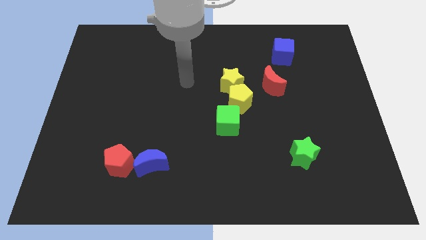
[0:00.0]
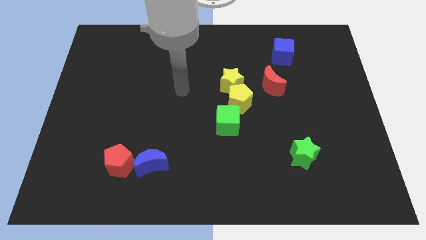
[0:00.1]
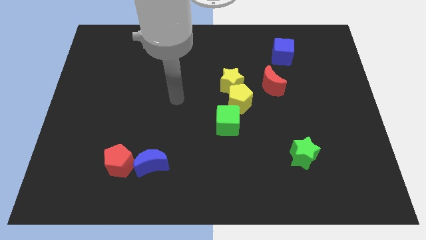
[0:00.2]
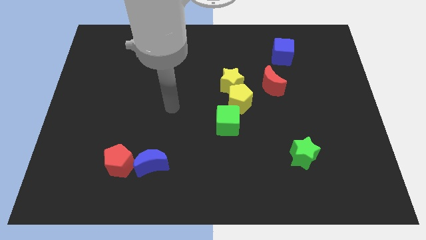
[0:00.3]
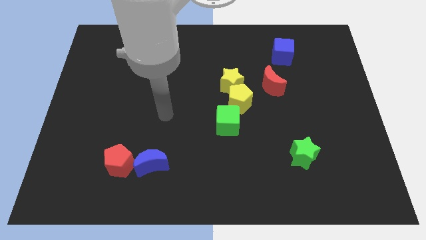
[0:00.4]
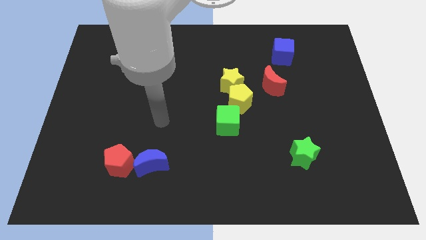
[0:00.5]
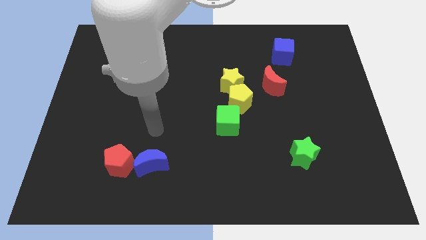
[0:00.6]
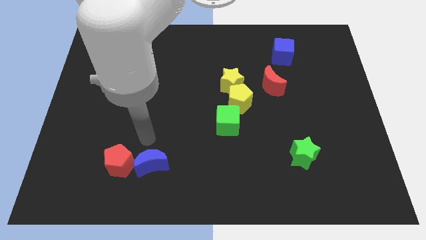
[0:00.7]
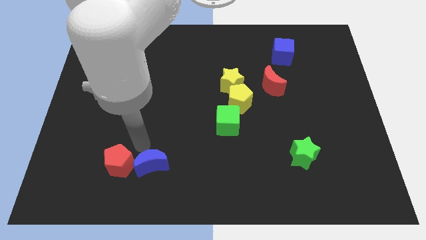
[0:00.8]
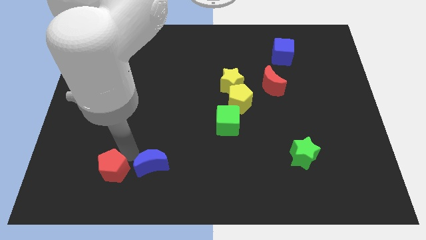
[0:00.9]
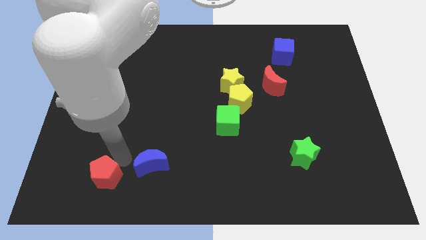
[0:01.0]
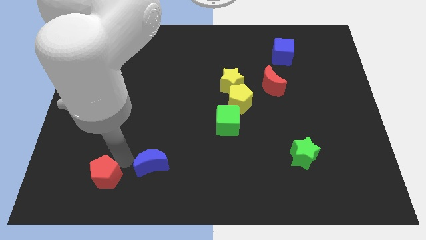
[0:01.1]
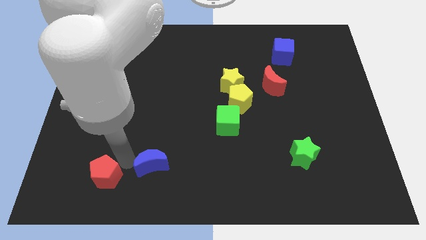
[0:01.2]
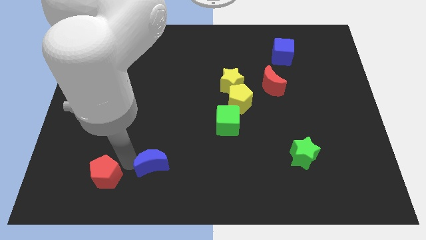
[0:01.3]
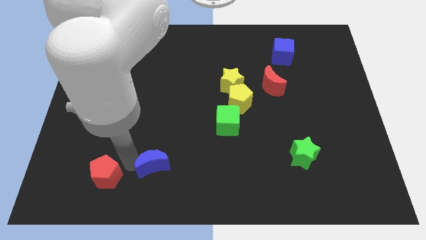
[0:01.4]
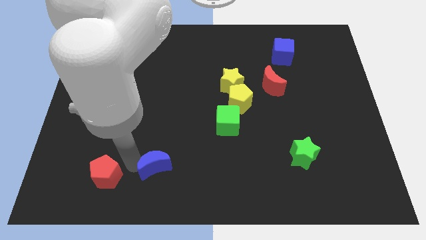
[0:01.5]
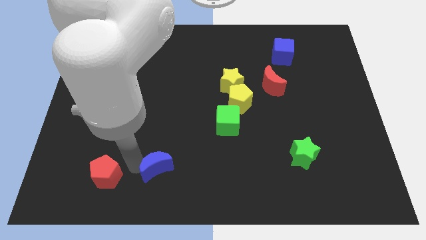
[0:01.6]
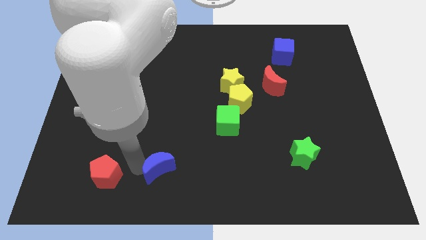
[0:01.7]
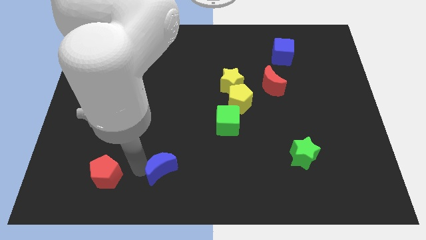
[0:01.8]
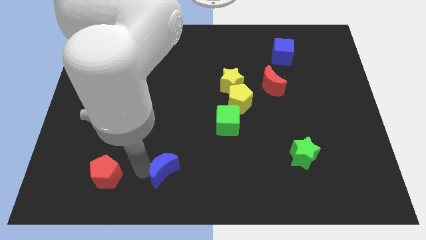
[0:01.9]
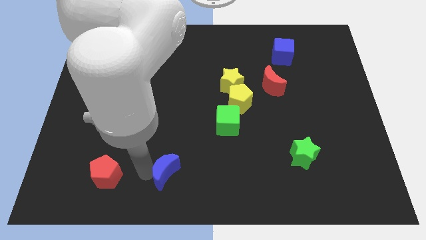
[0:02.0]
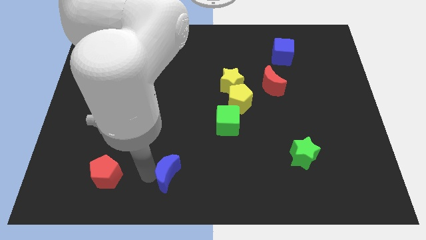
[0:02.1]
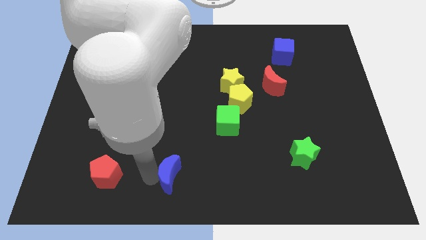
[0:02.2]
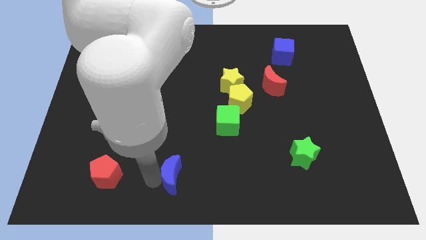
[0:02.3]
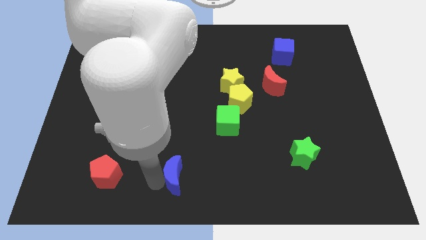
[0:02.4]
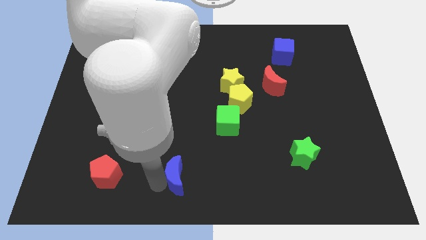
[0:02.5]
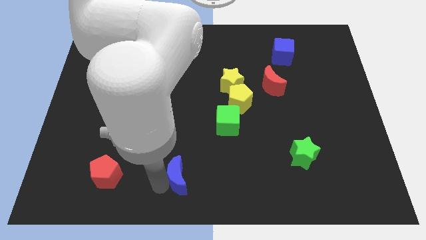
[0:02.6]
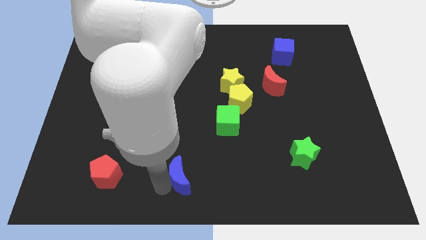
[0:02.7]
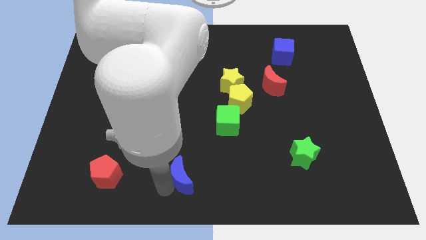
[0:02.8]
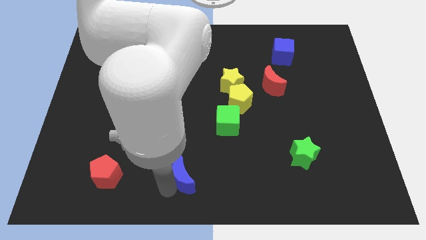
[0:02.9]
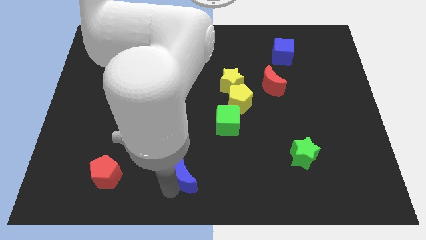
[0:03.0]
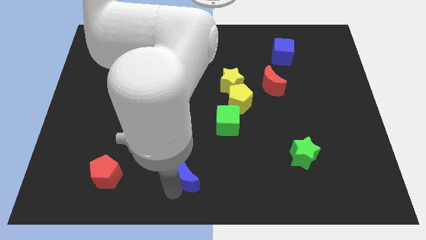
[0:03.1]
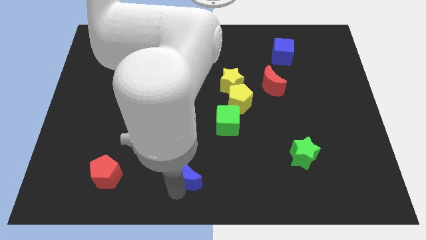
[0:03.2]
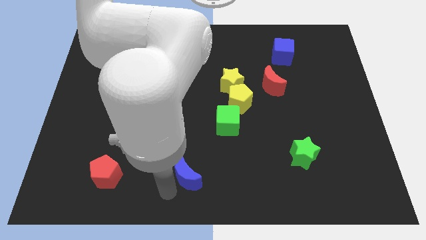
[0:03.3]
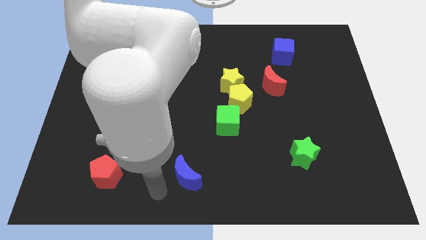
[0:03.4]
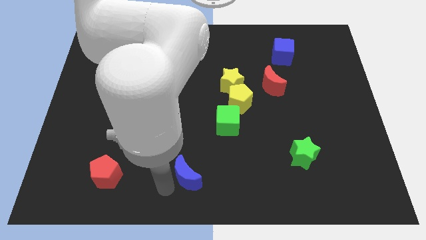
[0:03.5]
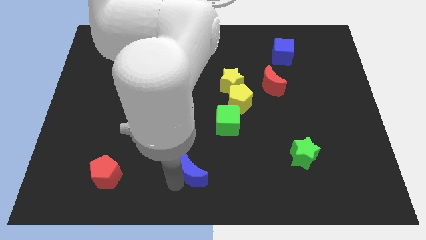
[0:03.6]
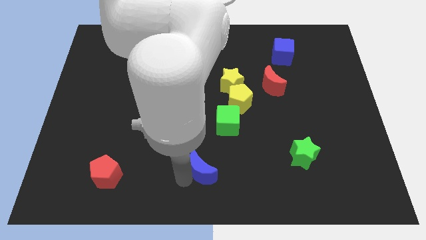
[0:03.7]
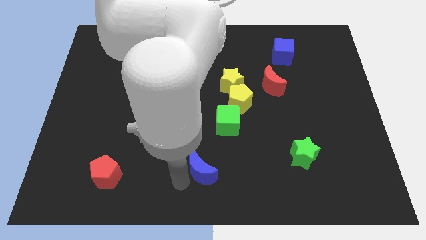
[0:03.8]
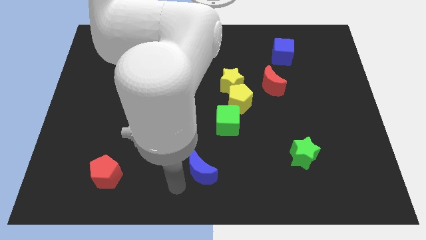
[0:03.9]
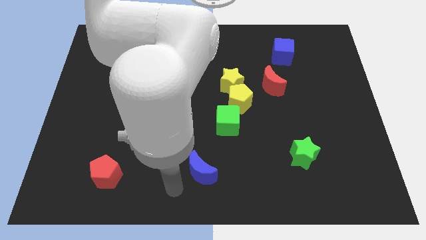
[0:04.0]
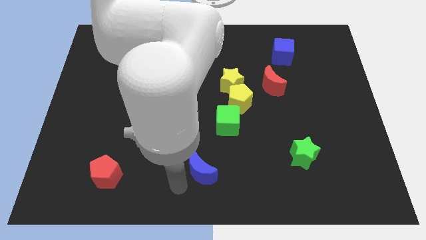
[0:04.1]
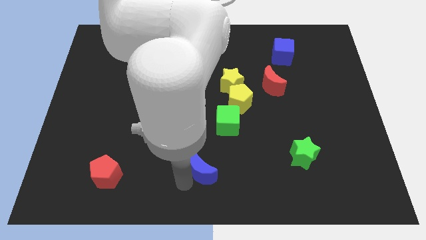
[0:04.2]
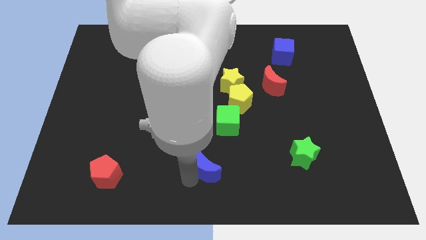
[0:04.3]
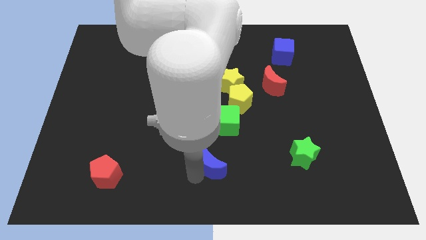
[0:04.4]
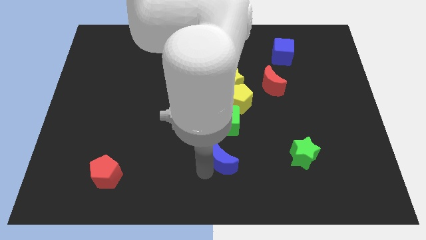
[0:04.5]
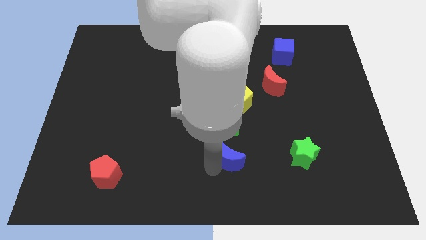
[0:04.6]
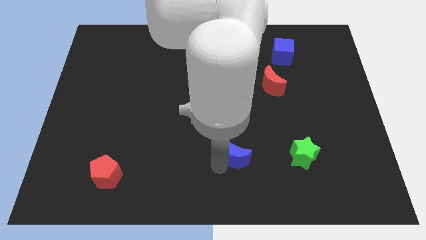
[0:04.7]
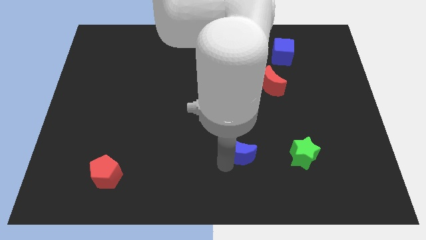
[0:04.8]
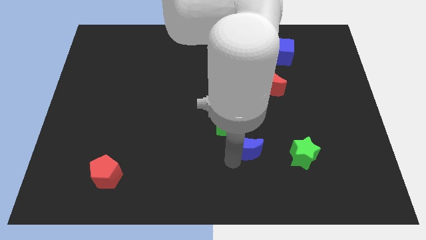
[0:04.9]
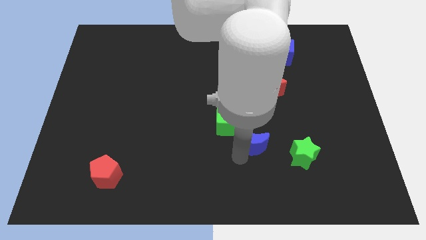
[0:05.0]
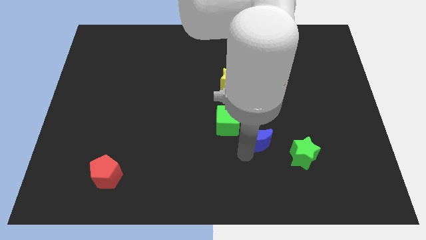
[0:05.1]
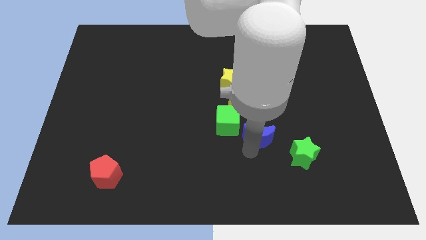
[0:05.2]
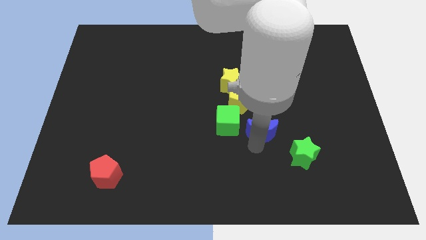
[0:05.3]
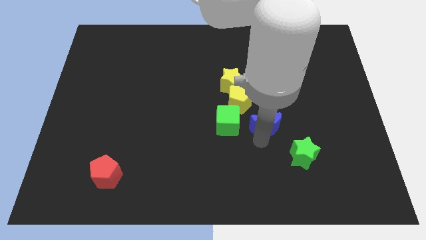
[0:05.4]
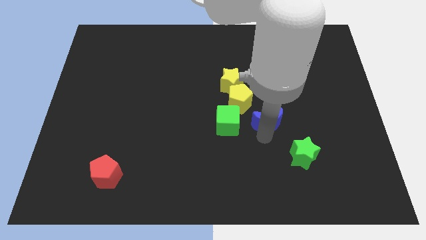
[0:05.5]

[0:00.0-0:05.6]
push the blue moon upwards and to the right diagonally

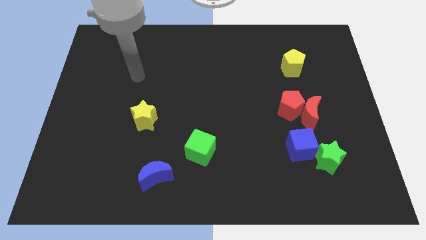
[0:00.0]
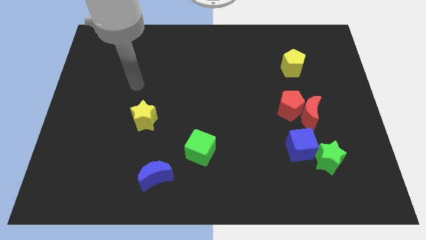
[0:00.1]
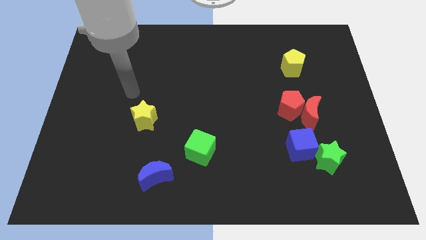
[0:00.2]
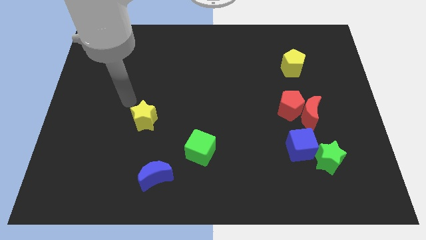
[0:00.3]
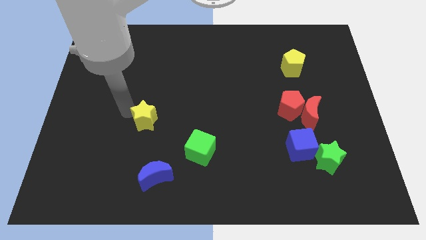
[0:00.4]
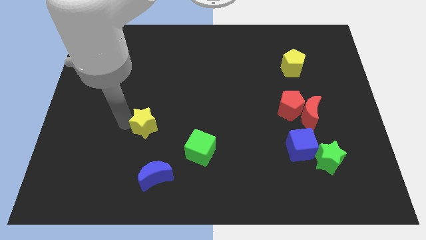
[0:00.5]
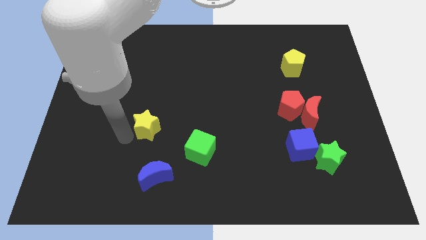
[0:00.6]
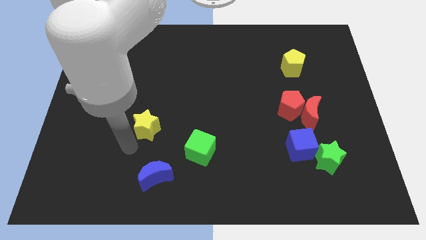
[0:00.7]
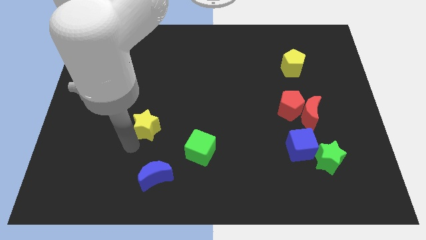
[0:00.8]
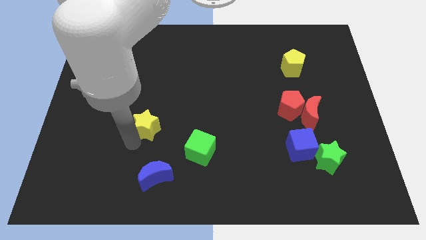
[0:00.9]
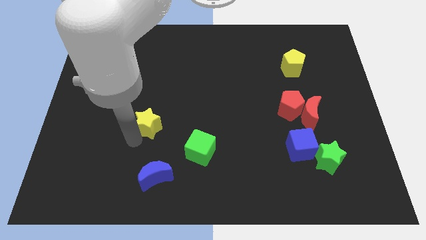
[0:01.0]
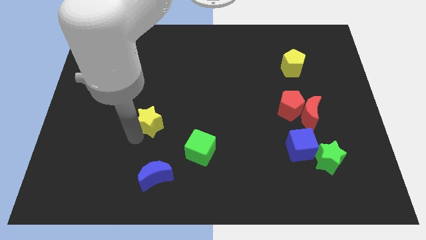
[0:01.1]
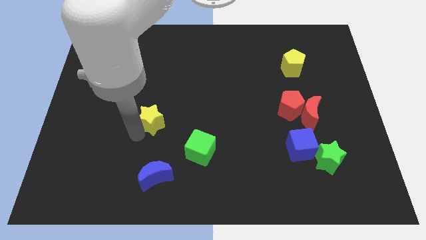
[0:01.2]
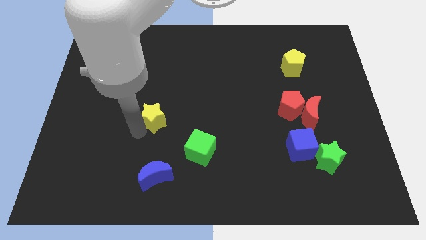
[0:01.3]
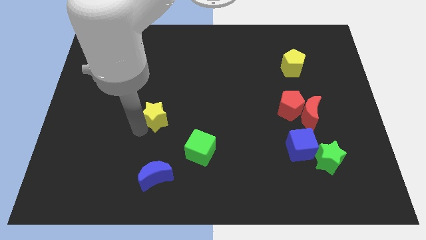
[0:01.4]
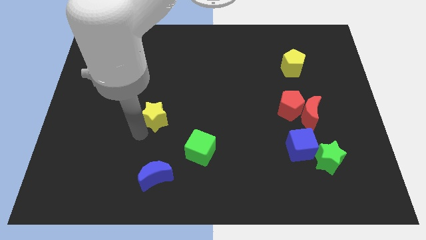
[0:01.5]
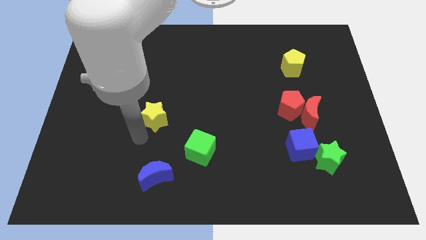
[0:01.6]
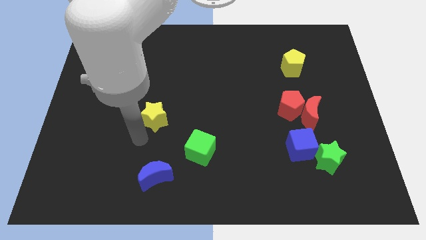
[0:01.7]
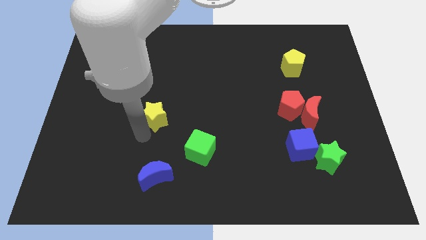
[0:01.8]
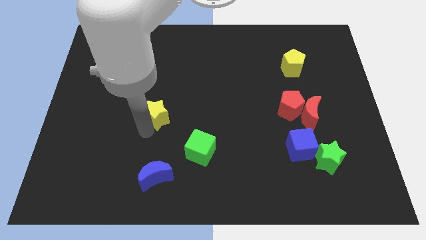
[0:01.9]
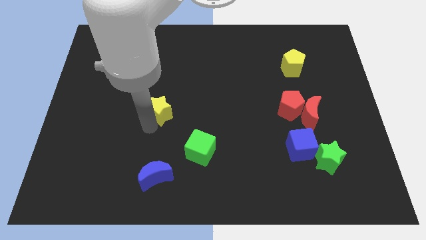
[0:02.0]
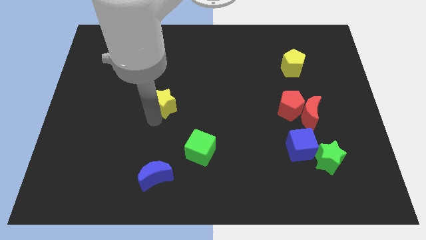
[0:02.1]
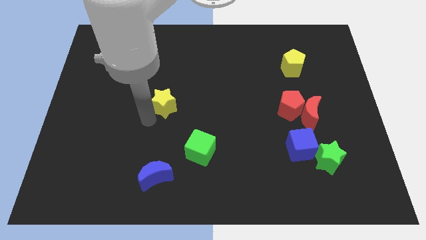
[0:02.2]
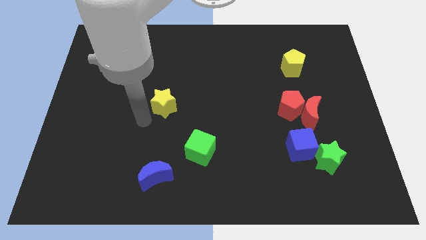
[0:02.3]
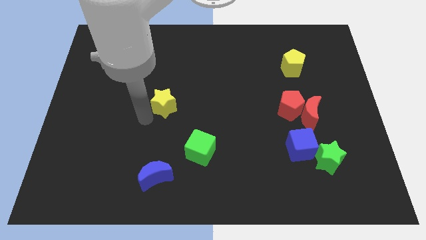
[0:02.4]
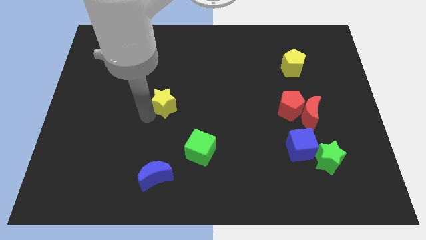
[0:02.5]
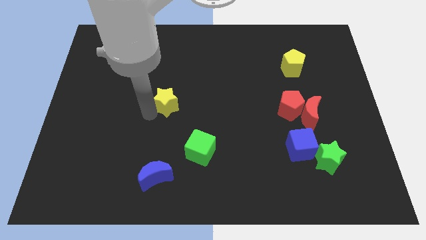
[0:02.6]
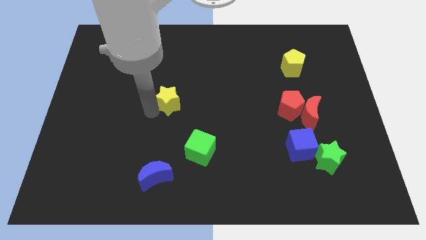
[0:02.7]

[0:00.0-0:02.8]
push the yellow star up and to the right diagonally a little
